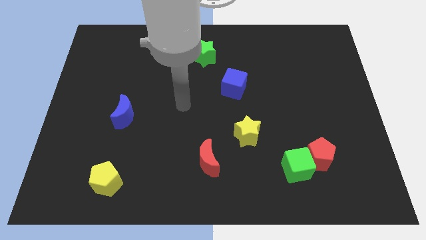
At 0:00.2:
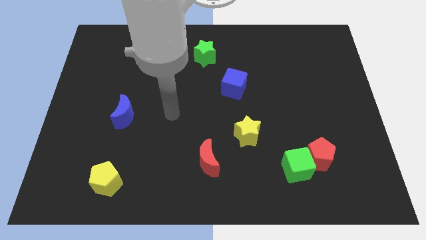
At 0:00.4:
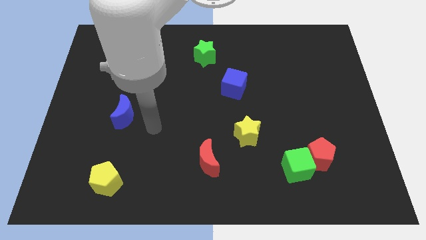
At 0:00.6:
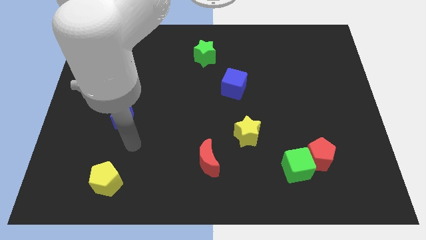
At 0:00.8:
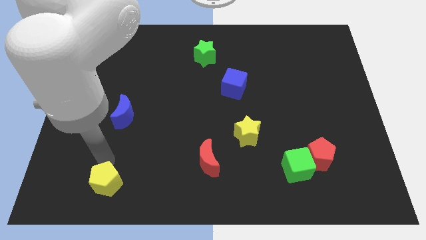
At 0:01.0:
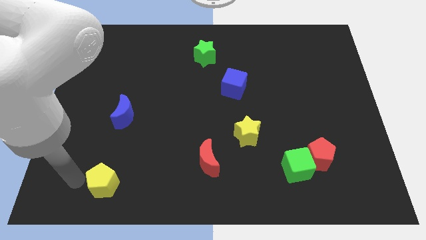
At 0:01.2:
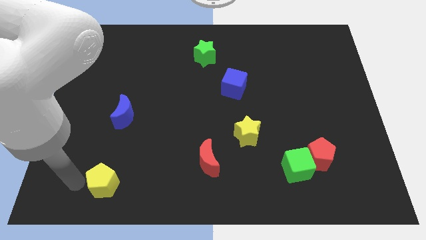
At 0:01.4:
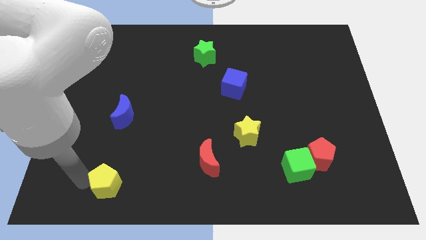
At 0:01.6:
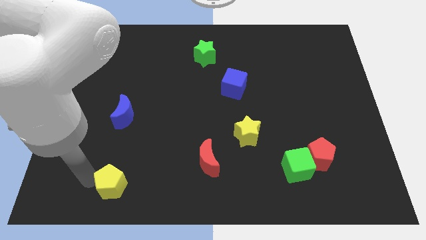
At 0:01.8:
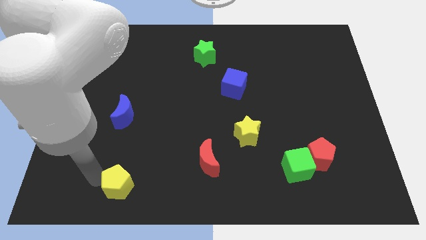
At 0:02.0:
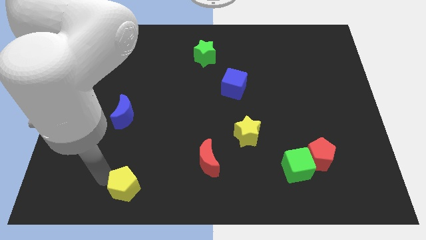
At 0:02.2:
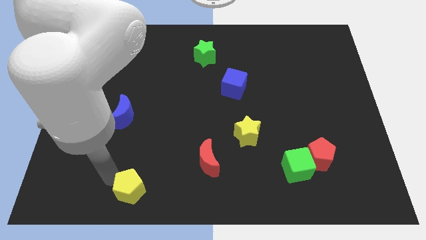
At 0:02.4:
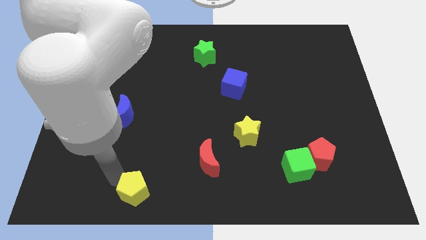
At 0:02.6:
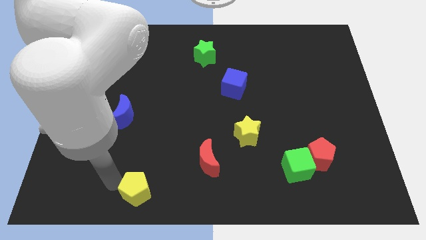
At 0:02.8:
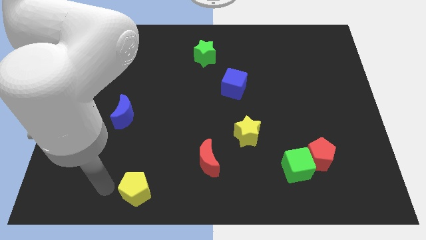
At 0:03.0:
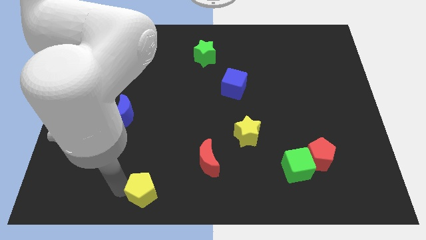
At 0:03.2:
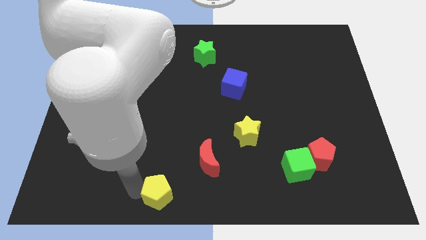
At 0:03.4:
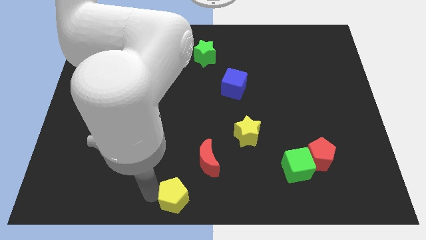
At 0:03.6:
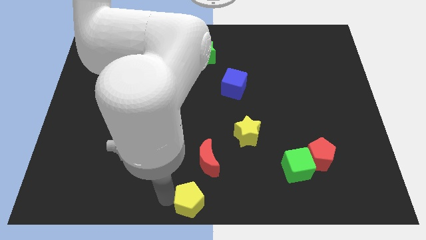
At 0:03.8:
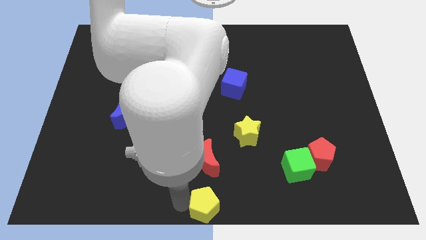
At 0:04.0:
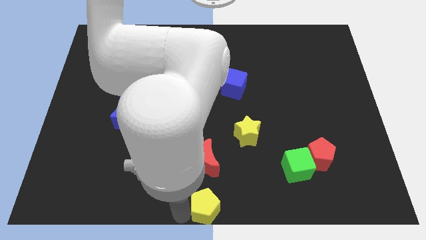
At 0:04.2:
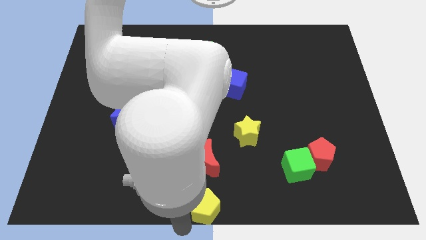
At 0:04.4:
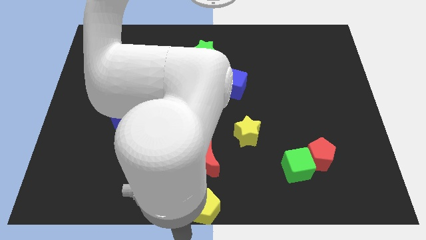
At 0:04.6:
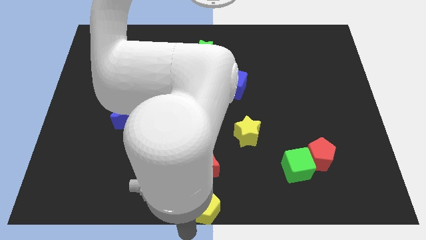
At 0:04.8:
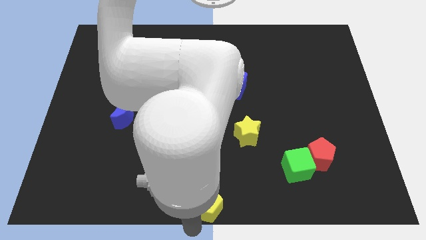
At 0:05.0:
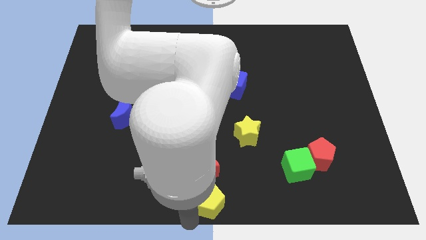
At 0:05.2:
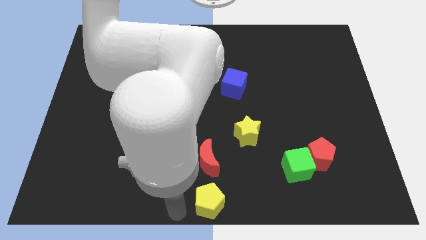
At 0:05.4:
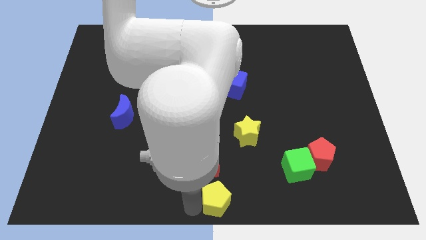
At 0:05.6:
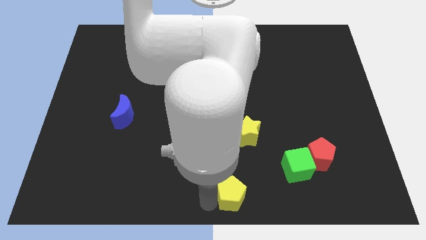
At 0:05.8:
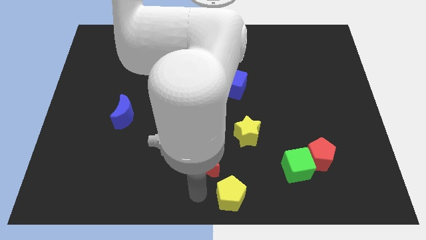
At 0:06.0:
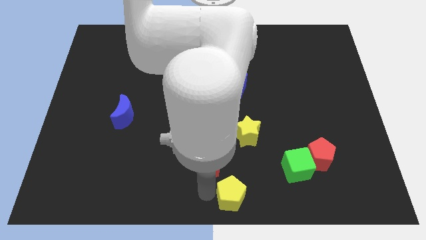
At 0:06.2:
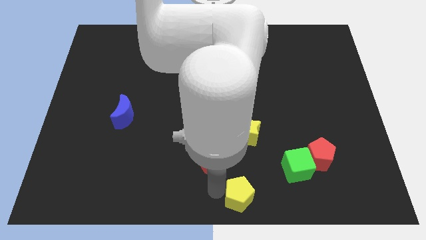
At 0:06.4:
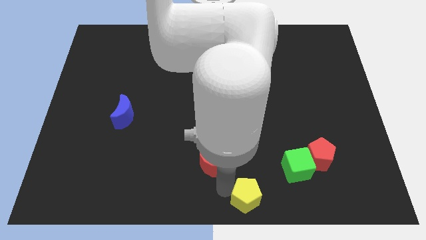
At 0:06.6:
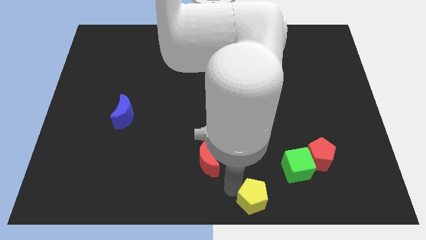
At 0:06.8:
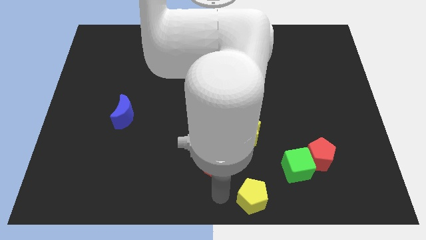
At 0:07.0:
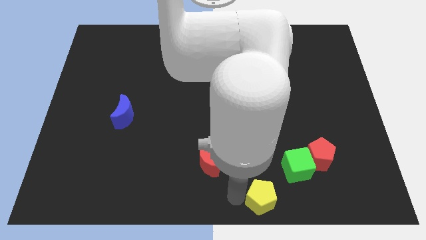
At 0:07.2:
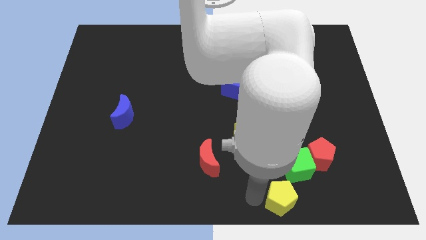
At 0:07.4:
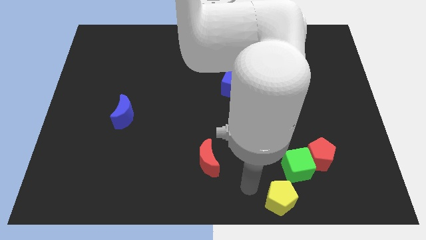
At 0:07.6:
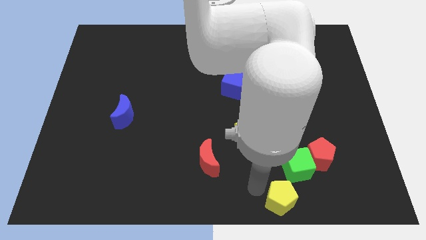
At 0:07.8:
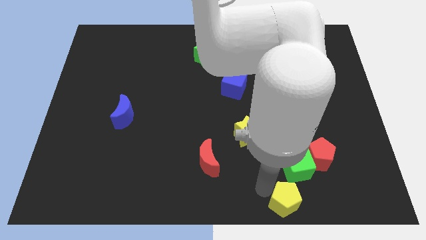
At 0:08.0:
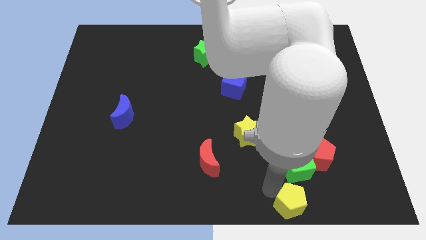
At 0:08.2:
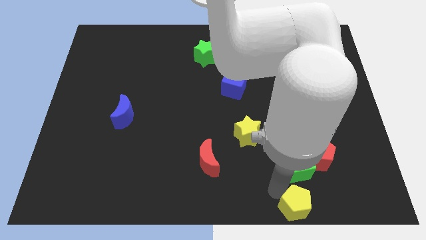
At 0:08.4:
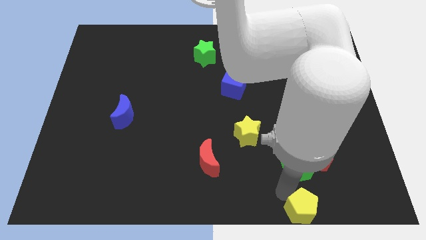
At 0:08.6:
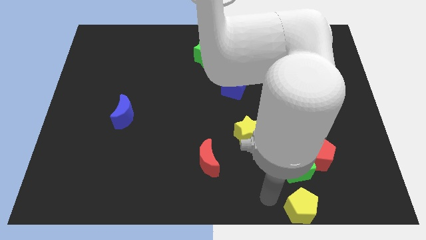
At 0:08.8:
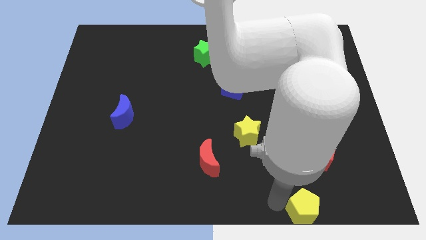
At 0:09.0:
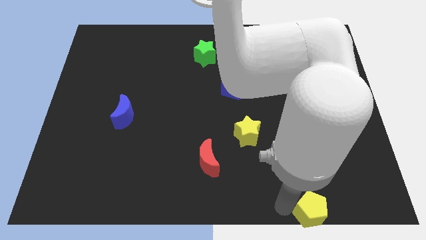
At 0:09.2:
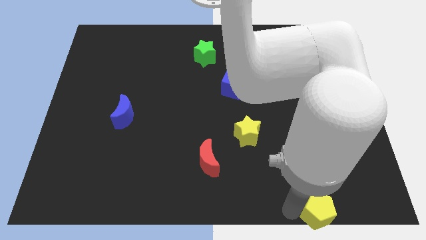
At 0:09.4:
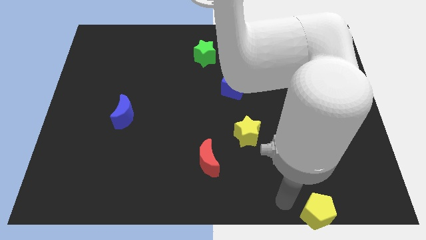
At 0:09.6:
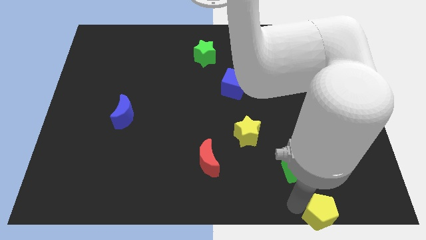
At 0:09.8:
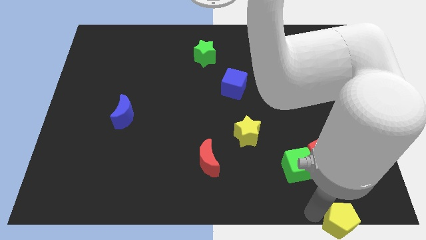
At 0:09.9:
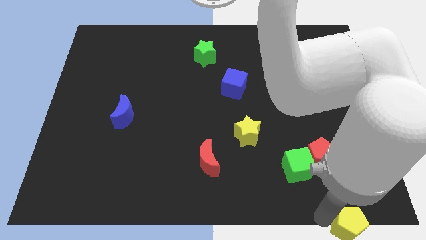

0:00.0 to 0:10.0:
move the yellow pentagon to the bottom right corner

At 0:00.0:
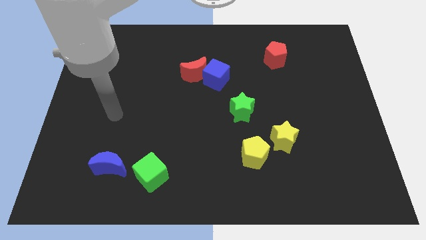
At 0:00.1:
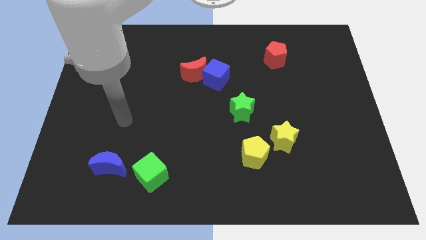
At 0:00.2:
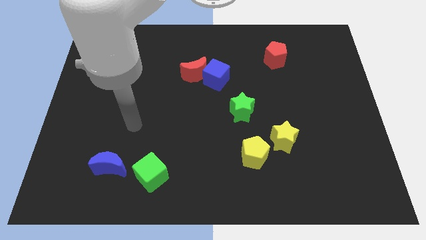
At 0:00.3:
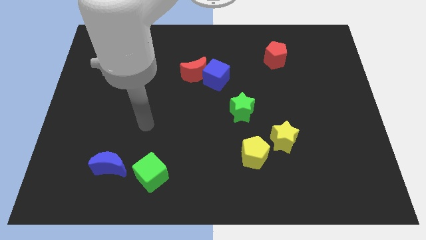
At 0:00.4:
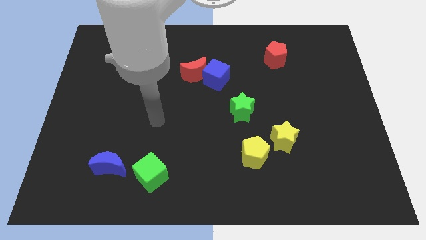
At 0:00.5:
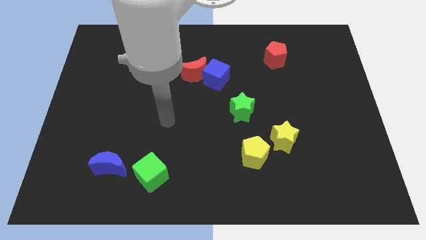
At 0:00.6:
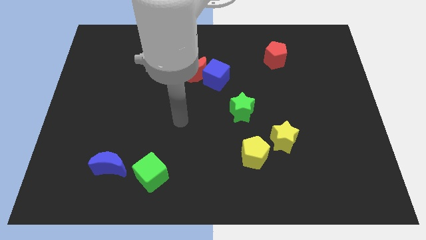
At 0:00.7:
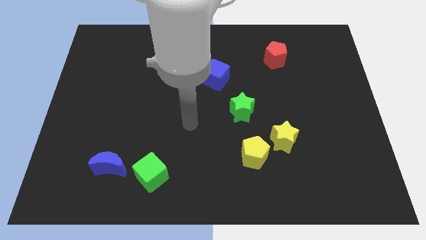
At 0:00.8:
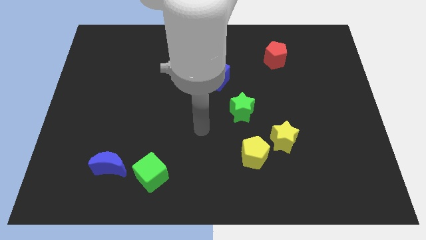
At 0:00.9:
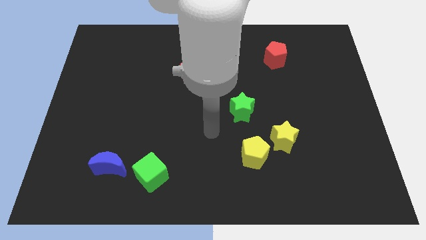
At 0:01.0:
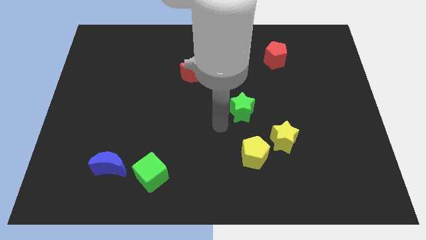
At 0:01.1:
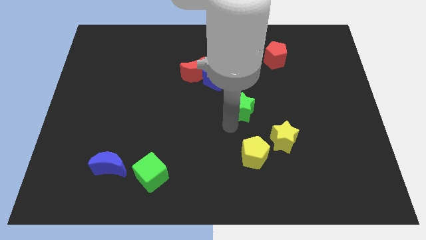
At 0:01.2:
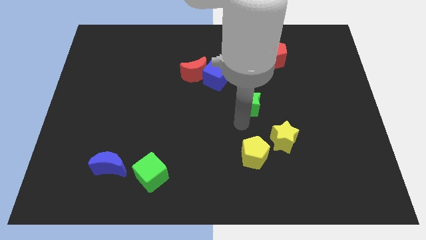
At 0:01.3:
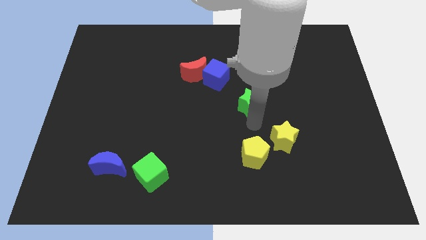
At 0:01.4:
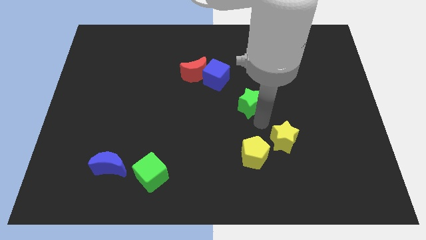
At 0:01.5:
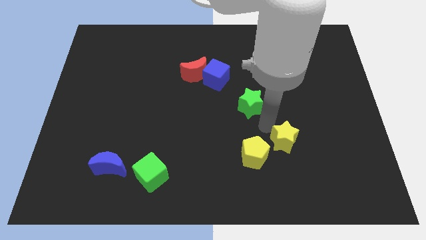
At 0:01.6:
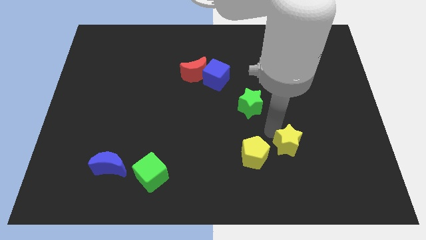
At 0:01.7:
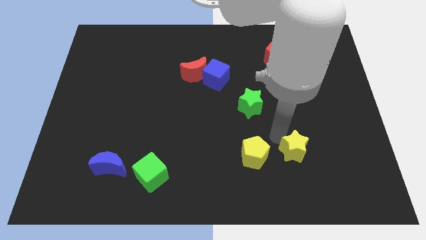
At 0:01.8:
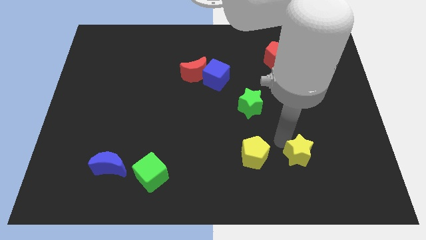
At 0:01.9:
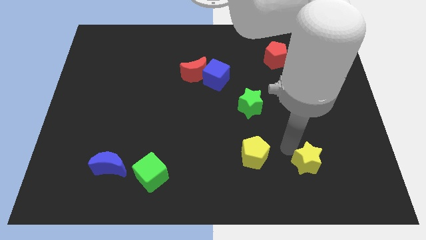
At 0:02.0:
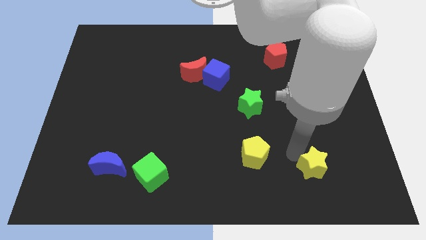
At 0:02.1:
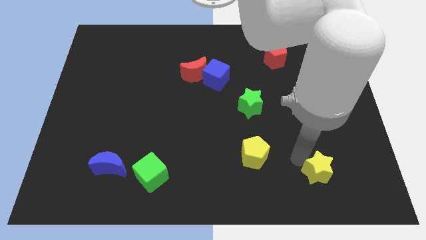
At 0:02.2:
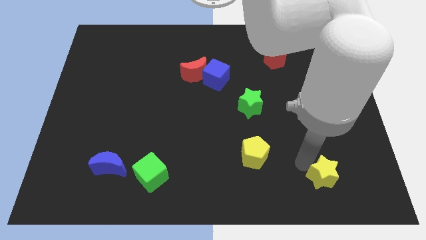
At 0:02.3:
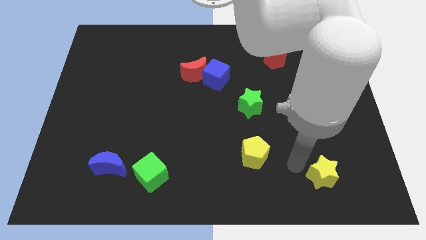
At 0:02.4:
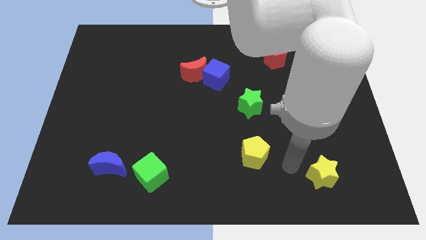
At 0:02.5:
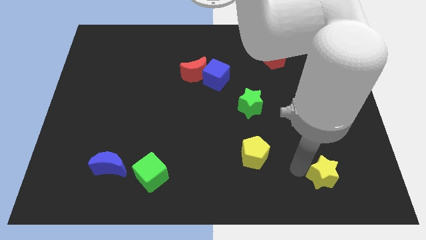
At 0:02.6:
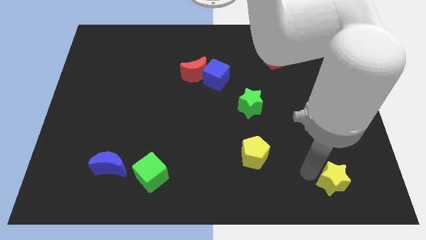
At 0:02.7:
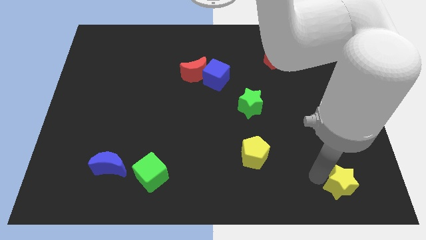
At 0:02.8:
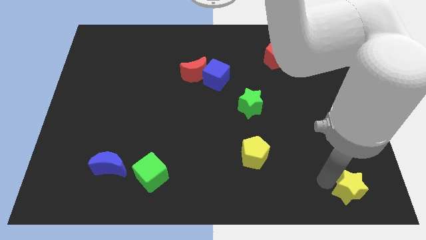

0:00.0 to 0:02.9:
move the yellow star to the bottom right corner
